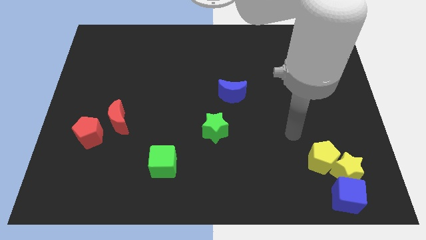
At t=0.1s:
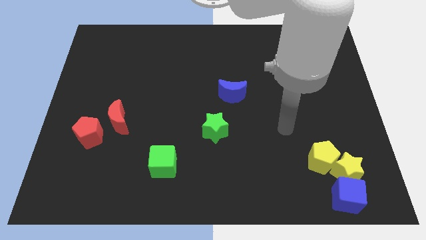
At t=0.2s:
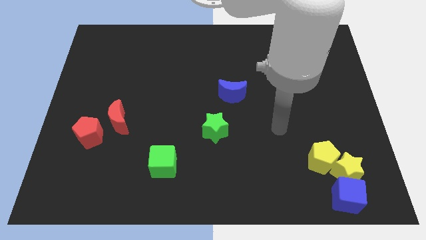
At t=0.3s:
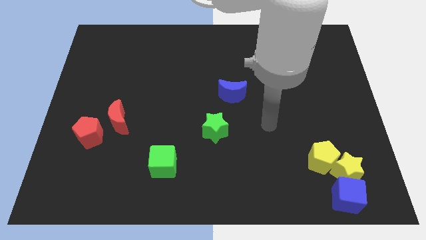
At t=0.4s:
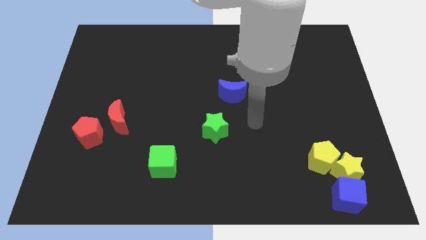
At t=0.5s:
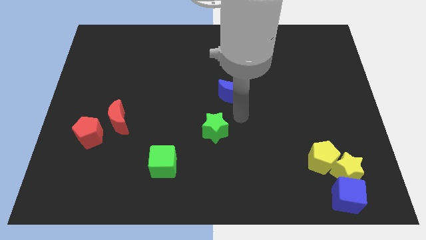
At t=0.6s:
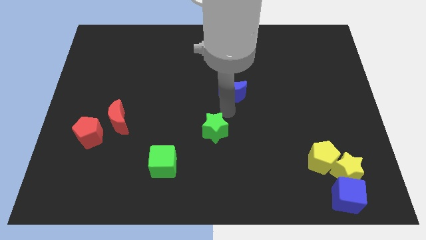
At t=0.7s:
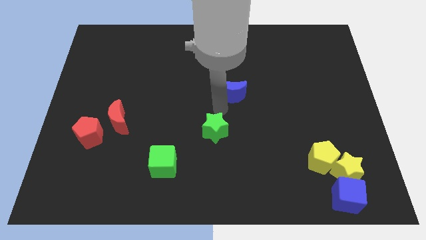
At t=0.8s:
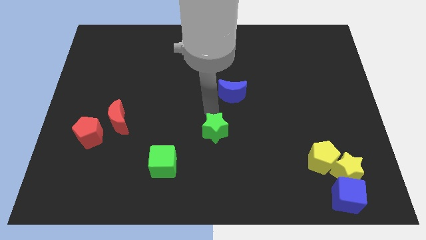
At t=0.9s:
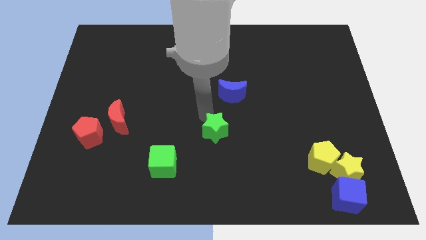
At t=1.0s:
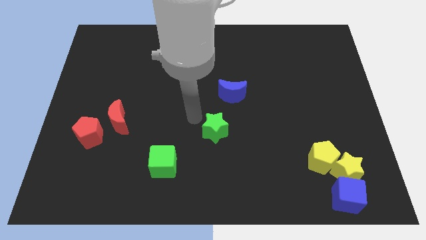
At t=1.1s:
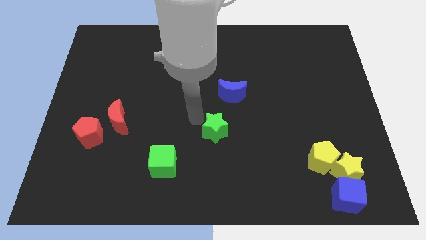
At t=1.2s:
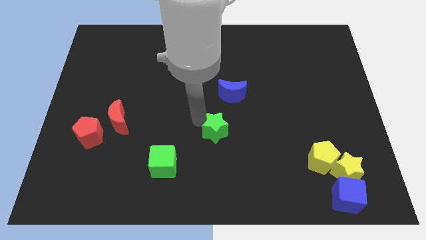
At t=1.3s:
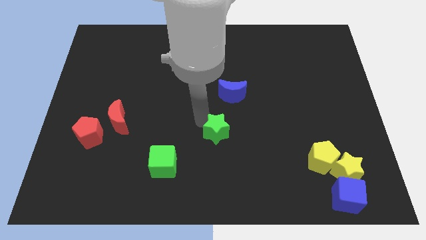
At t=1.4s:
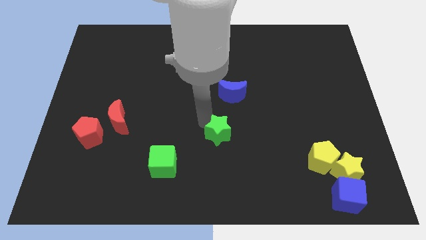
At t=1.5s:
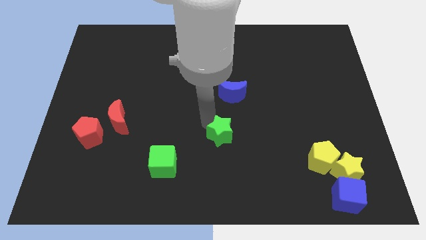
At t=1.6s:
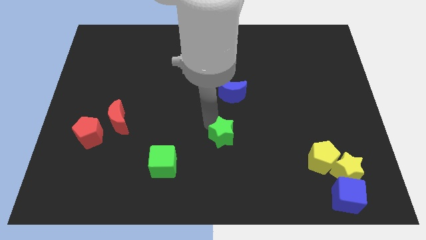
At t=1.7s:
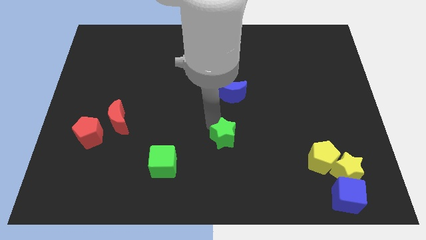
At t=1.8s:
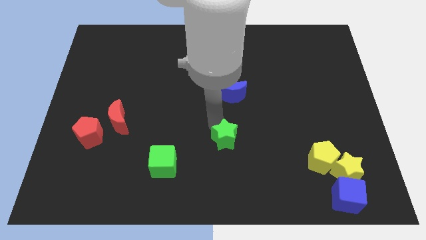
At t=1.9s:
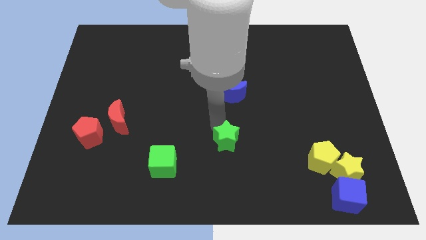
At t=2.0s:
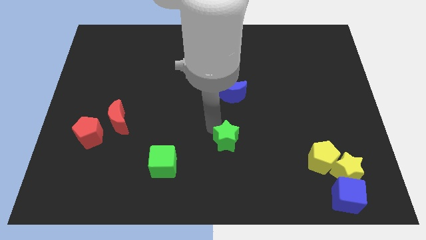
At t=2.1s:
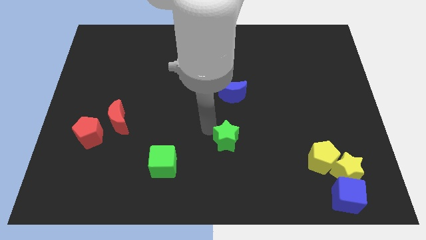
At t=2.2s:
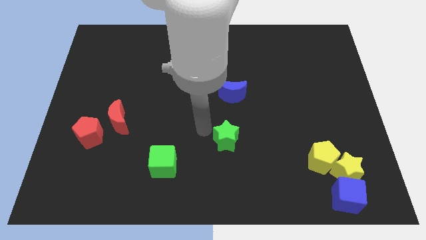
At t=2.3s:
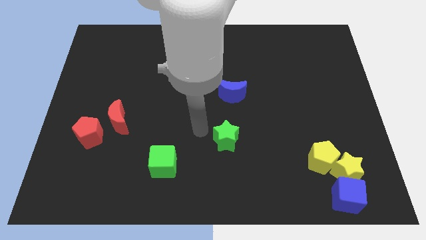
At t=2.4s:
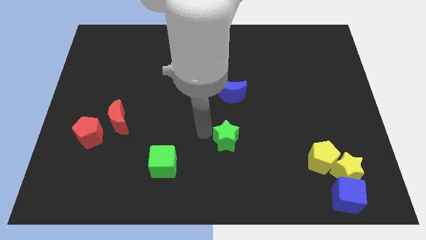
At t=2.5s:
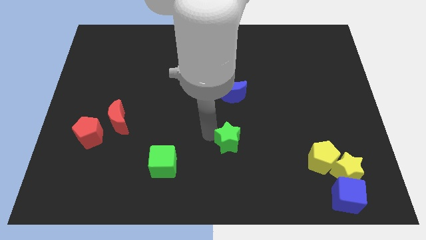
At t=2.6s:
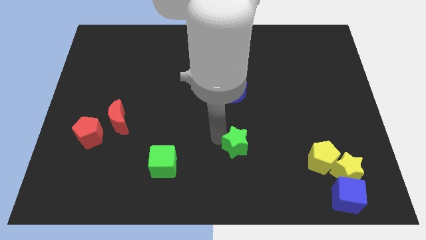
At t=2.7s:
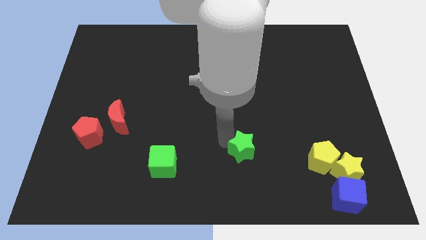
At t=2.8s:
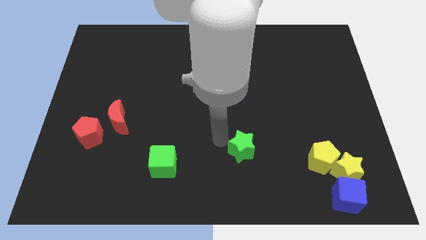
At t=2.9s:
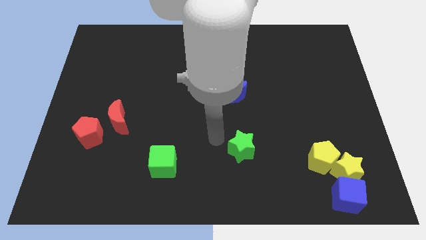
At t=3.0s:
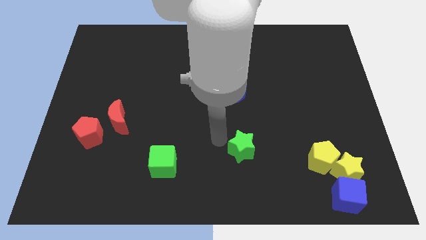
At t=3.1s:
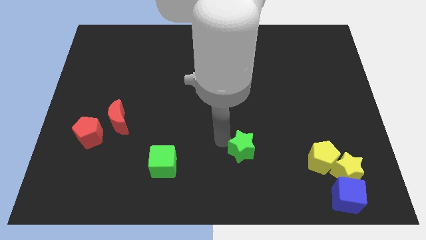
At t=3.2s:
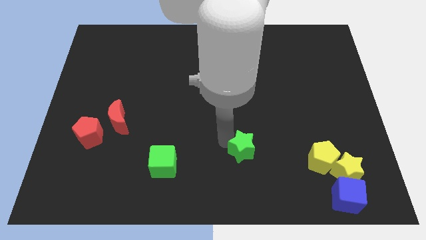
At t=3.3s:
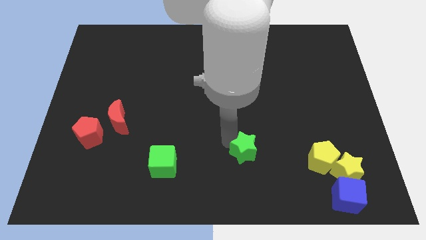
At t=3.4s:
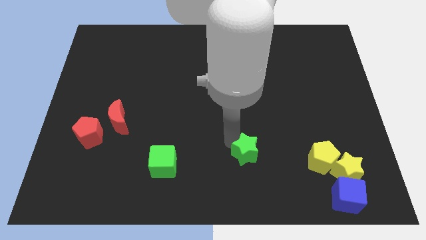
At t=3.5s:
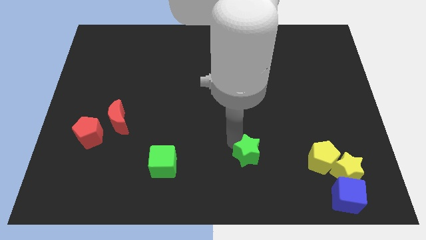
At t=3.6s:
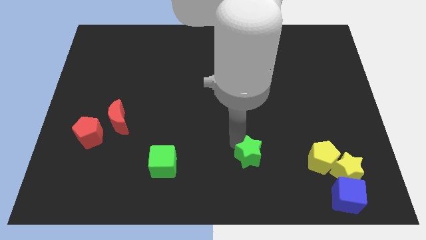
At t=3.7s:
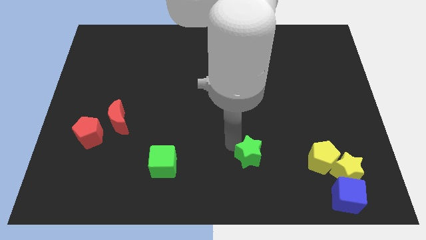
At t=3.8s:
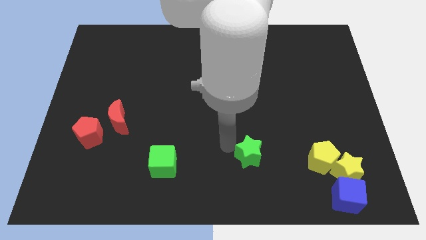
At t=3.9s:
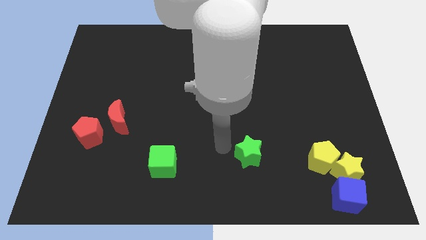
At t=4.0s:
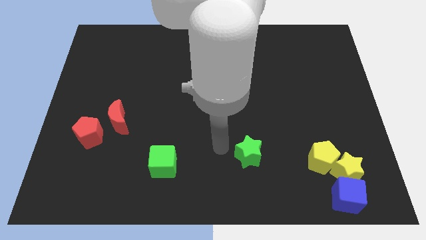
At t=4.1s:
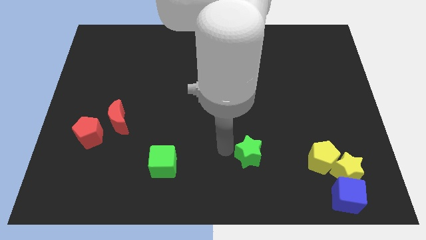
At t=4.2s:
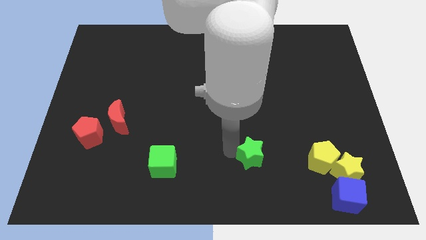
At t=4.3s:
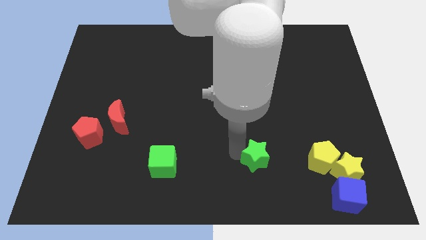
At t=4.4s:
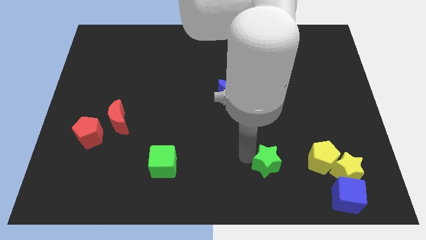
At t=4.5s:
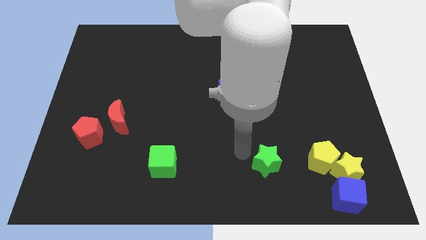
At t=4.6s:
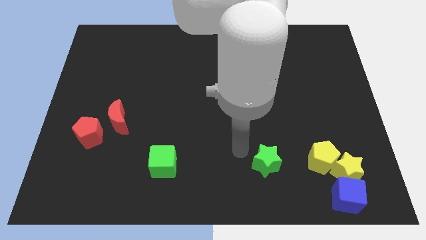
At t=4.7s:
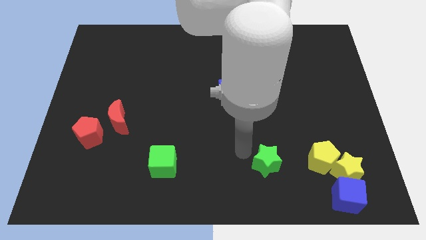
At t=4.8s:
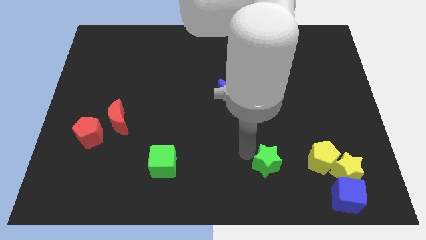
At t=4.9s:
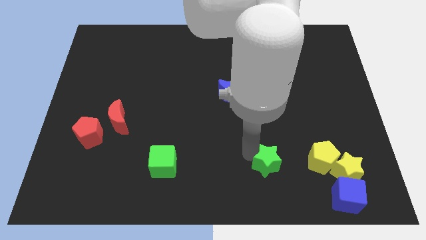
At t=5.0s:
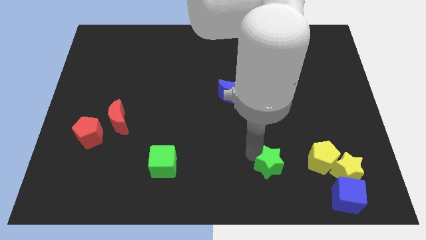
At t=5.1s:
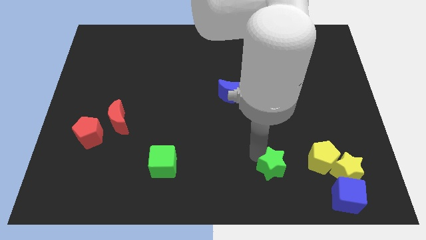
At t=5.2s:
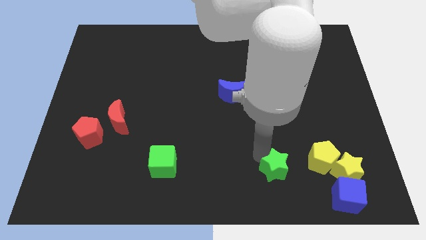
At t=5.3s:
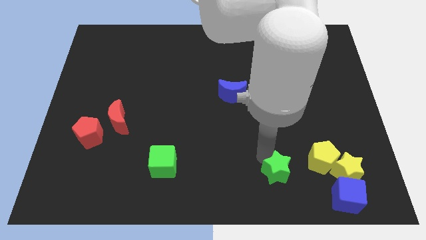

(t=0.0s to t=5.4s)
put the green star to the bottom left side of the yellow pentagon

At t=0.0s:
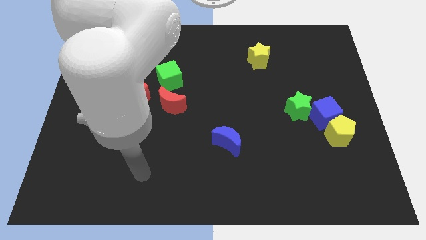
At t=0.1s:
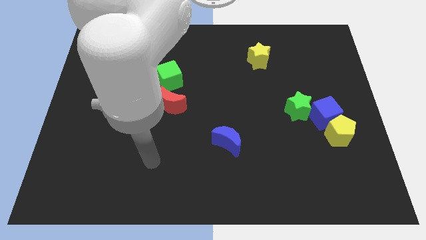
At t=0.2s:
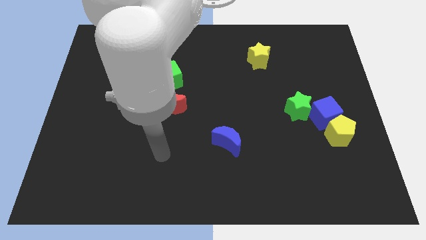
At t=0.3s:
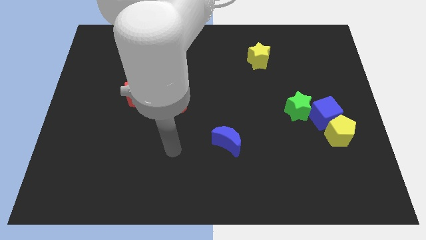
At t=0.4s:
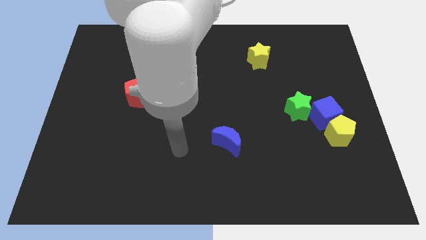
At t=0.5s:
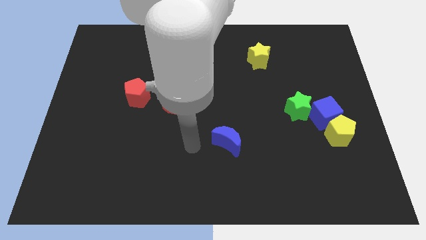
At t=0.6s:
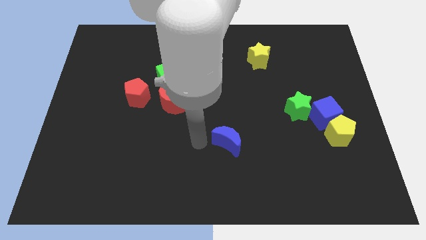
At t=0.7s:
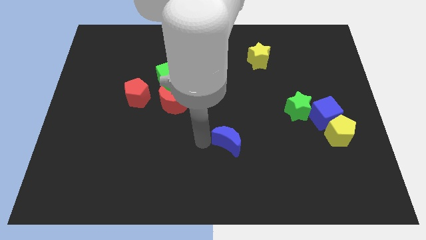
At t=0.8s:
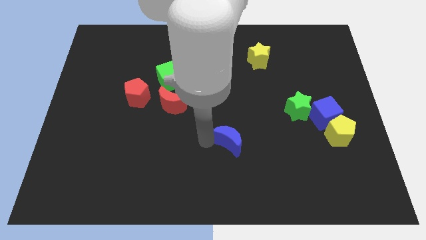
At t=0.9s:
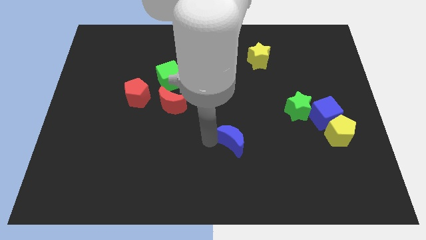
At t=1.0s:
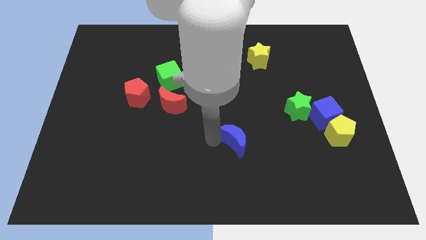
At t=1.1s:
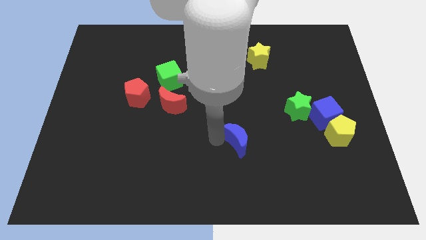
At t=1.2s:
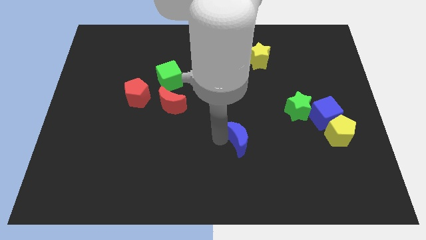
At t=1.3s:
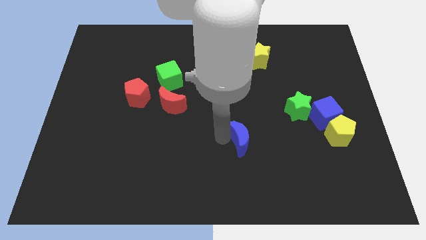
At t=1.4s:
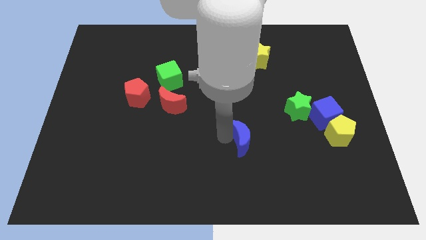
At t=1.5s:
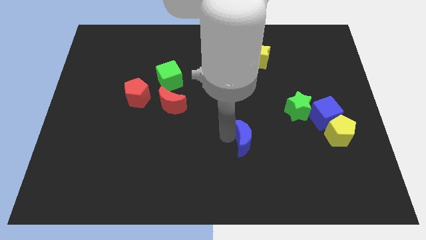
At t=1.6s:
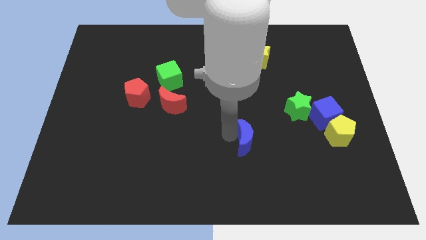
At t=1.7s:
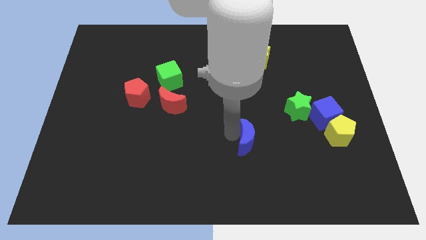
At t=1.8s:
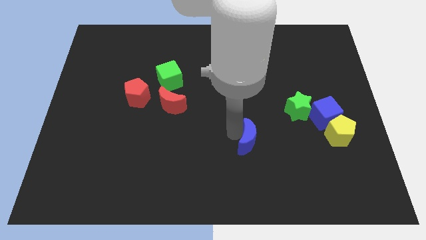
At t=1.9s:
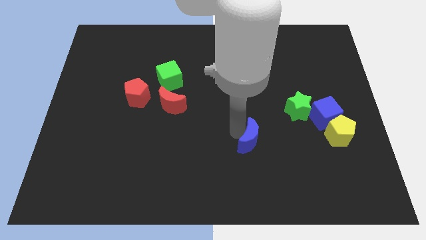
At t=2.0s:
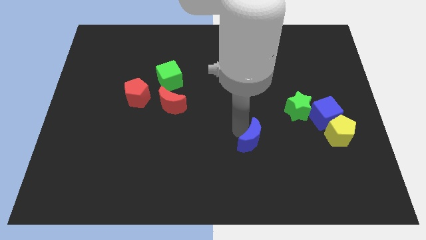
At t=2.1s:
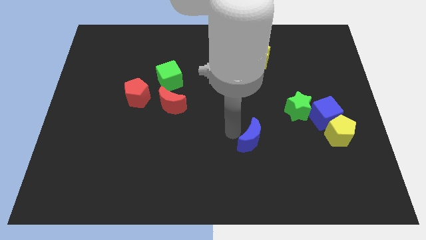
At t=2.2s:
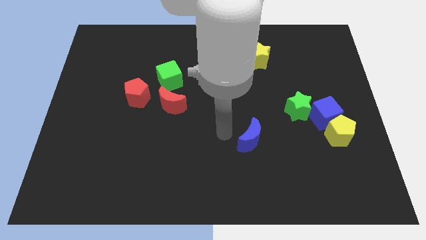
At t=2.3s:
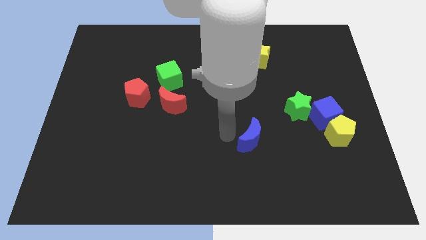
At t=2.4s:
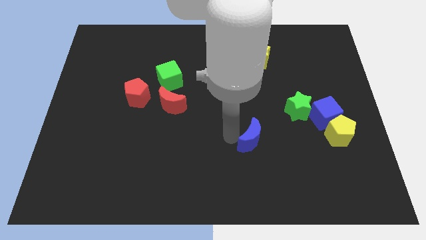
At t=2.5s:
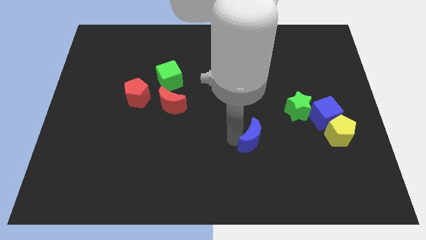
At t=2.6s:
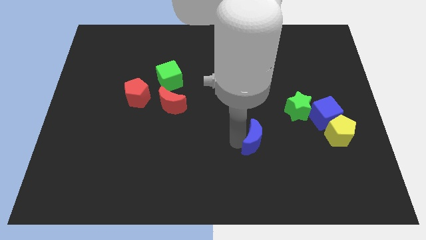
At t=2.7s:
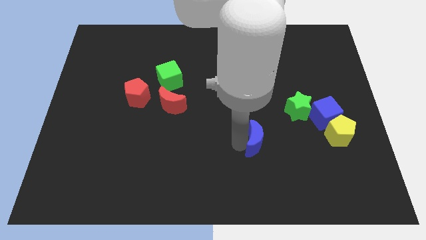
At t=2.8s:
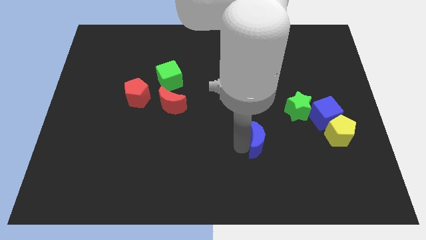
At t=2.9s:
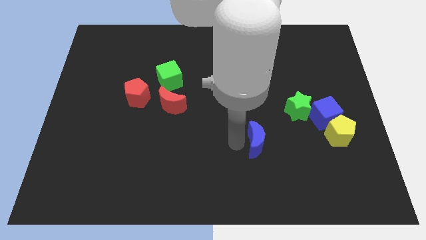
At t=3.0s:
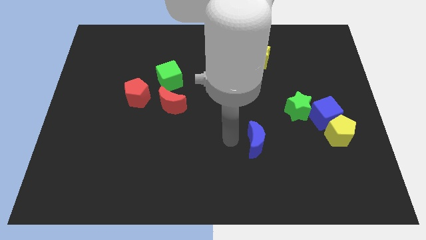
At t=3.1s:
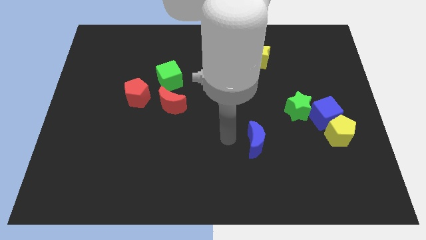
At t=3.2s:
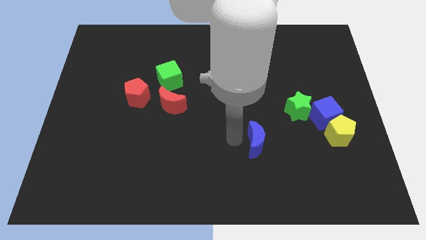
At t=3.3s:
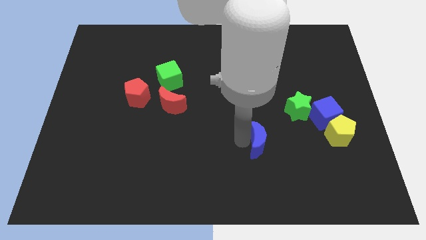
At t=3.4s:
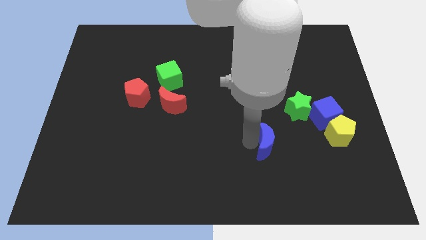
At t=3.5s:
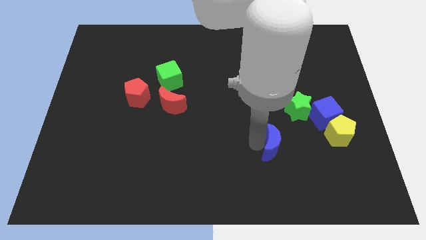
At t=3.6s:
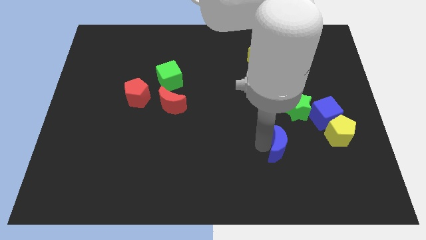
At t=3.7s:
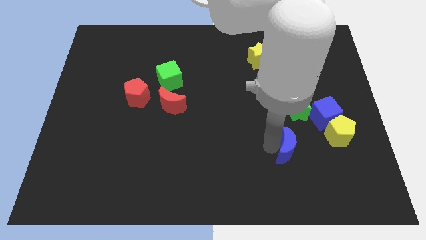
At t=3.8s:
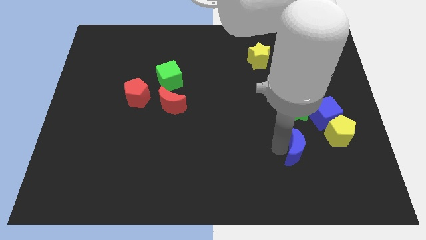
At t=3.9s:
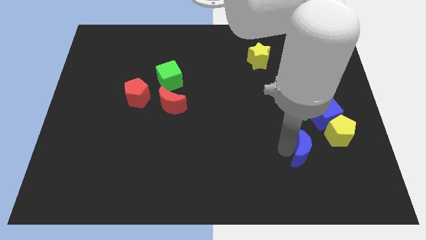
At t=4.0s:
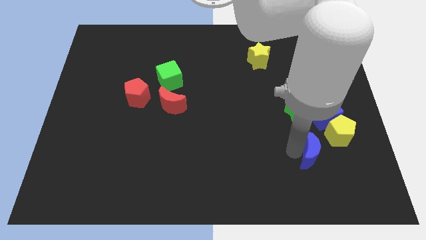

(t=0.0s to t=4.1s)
put the blue moon to the bottom side of the blue cube
